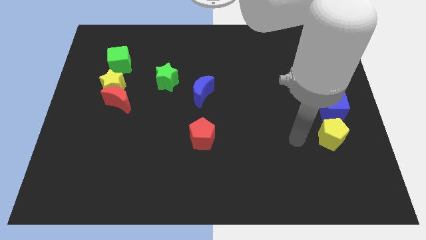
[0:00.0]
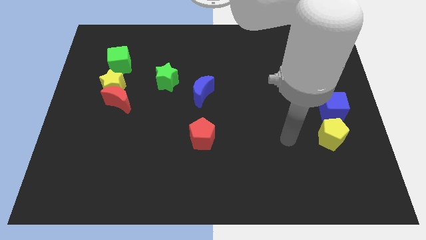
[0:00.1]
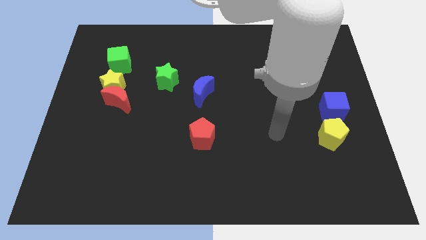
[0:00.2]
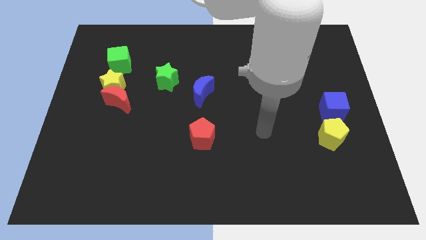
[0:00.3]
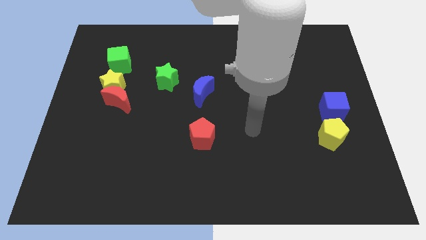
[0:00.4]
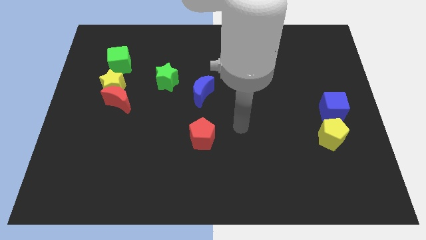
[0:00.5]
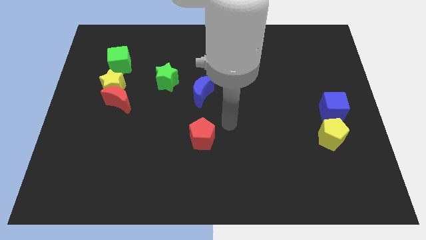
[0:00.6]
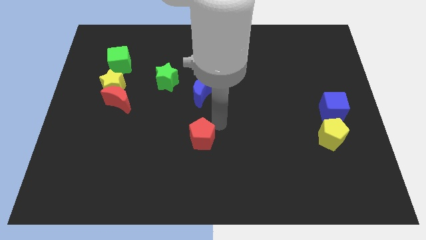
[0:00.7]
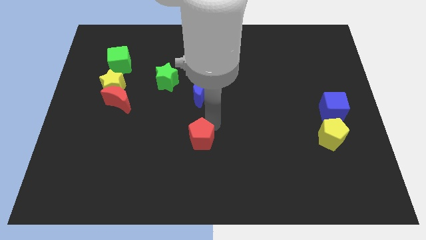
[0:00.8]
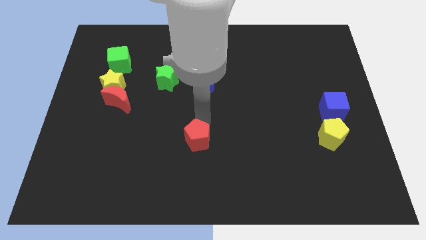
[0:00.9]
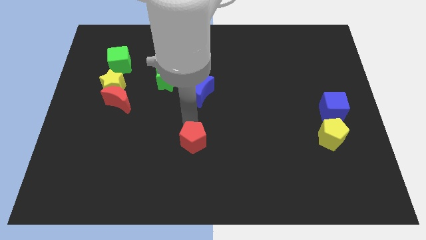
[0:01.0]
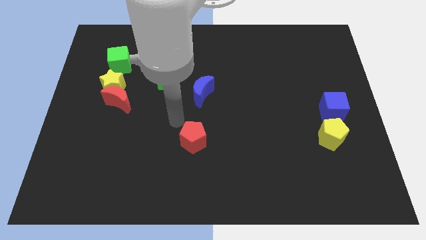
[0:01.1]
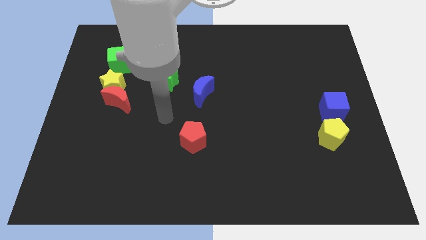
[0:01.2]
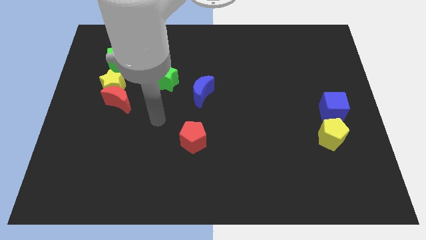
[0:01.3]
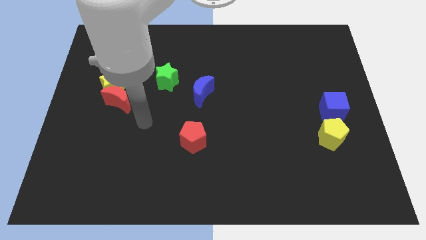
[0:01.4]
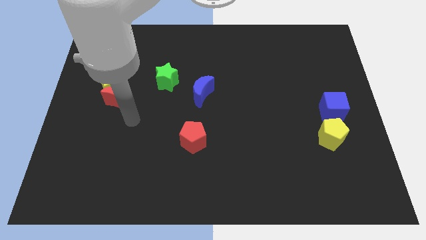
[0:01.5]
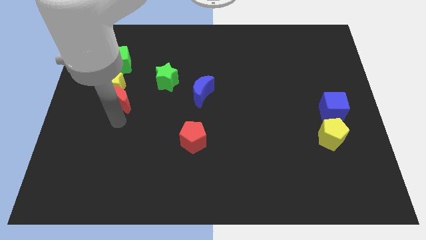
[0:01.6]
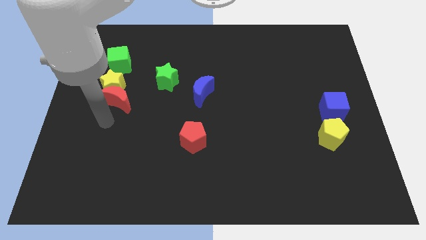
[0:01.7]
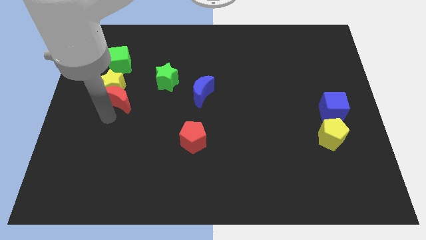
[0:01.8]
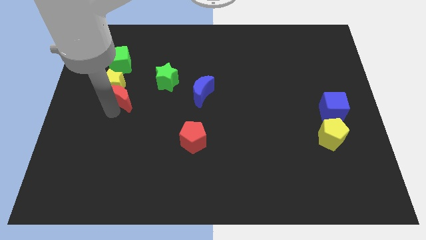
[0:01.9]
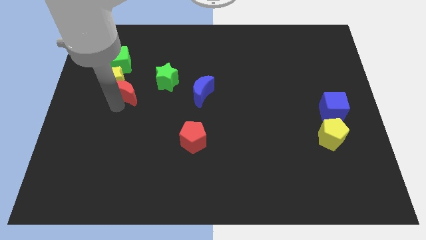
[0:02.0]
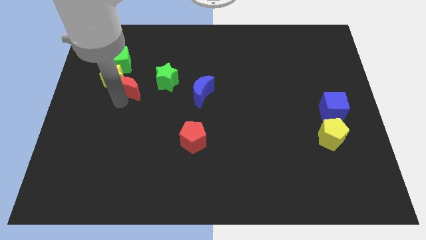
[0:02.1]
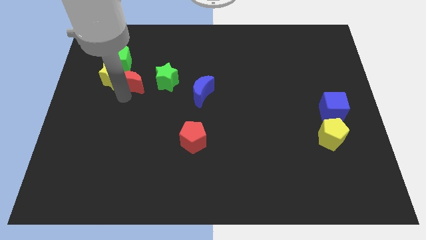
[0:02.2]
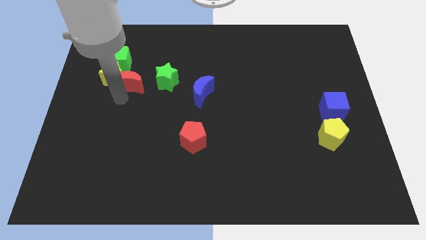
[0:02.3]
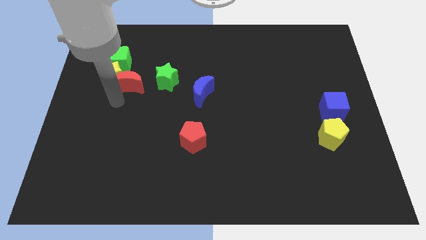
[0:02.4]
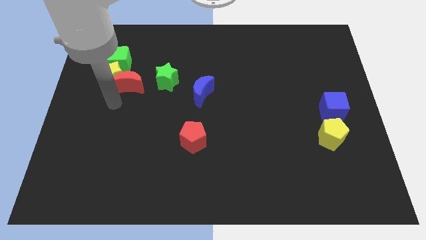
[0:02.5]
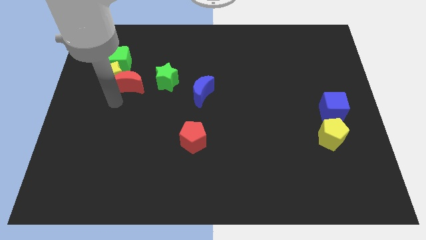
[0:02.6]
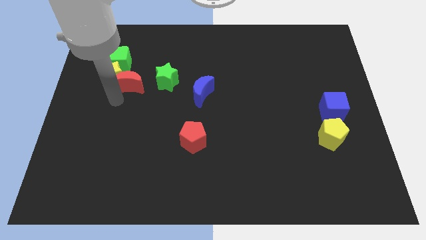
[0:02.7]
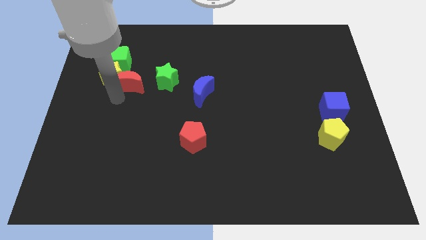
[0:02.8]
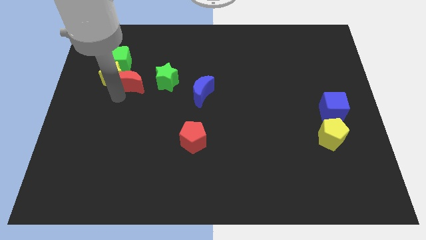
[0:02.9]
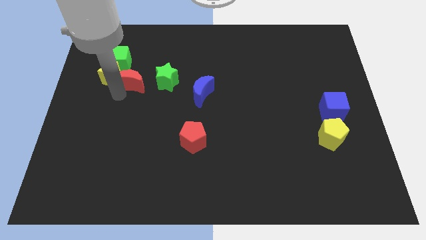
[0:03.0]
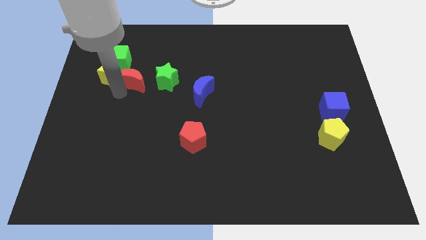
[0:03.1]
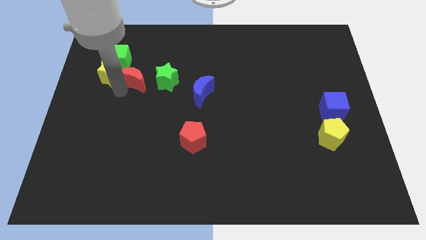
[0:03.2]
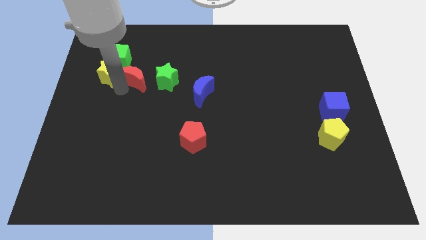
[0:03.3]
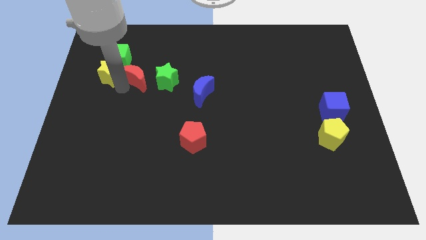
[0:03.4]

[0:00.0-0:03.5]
move the red moon upwards and right a bit

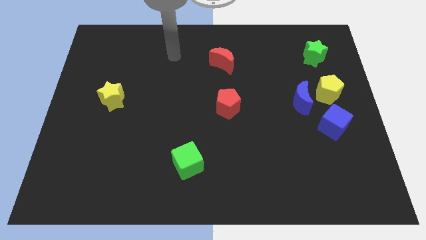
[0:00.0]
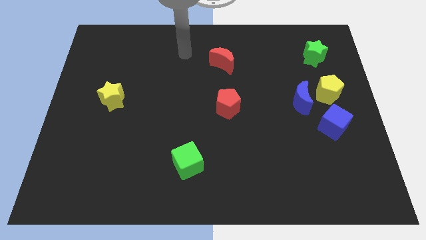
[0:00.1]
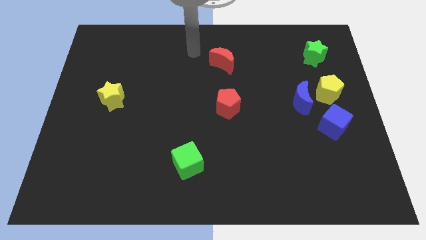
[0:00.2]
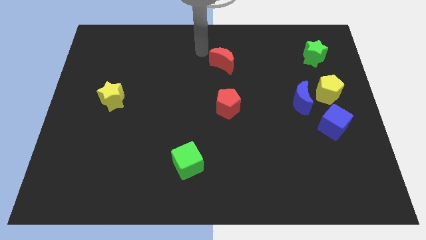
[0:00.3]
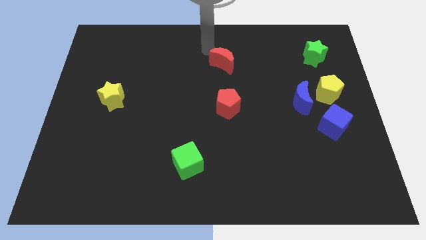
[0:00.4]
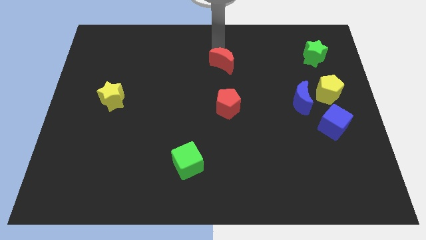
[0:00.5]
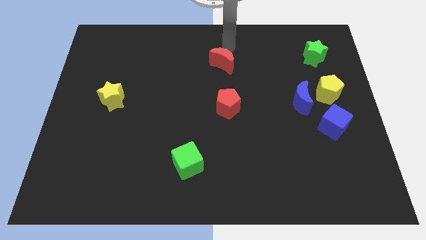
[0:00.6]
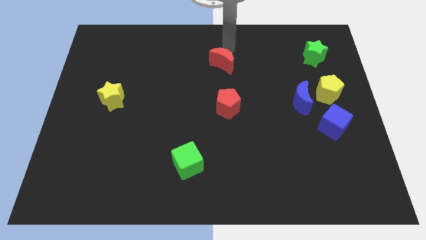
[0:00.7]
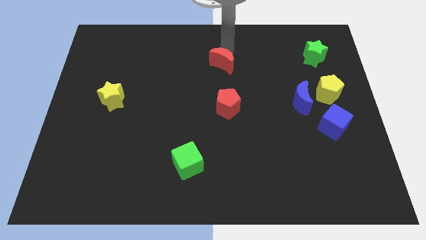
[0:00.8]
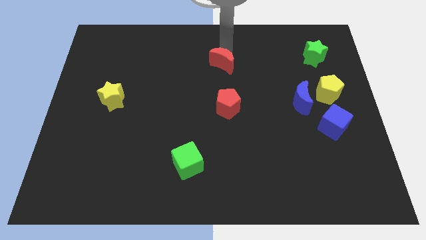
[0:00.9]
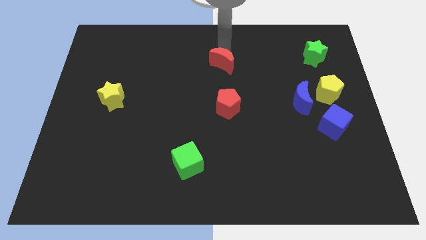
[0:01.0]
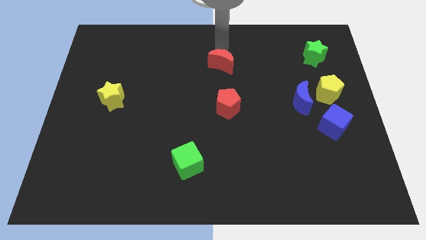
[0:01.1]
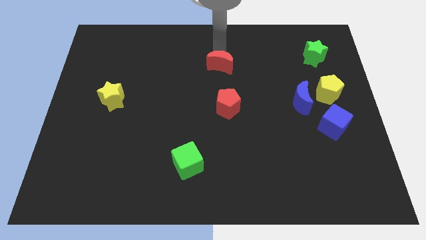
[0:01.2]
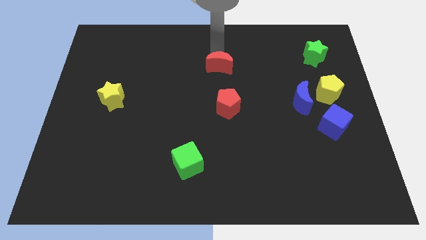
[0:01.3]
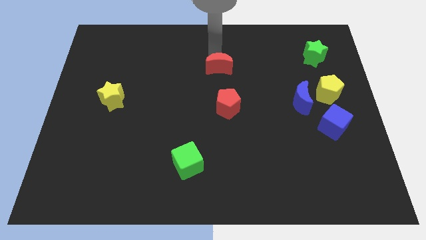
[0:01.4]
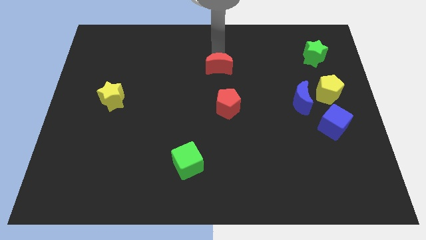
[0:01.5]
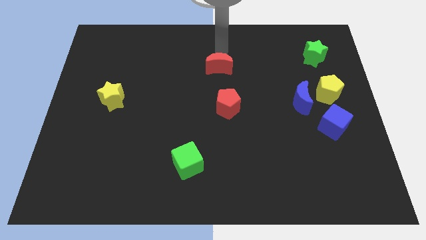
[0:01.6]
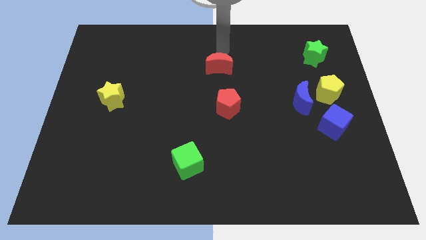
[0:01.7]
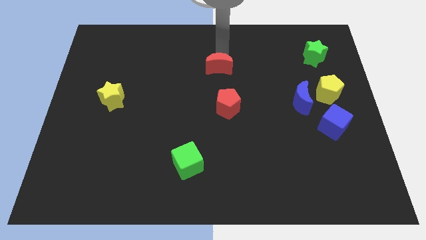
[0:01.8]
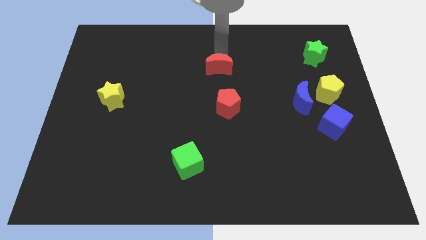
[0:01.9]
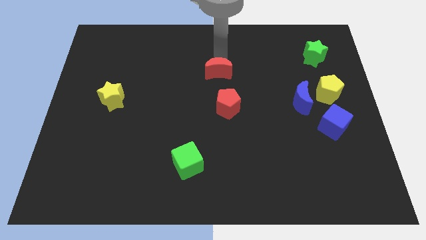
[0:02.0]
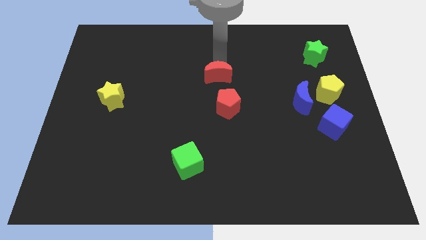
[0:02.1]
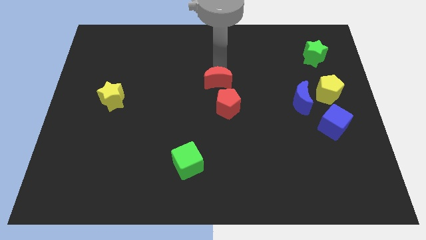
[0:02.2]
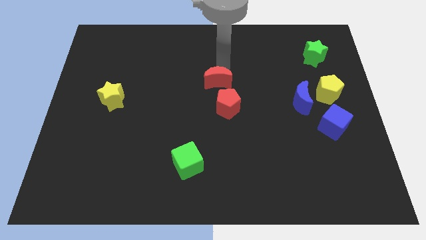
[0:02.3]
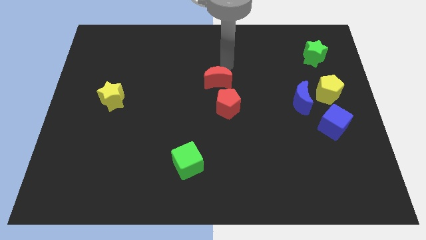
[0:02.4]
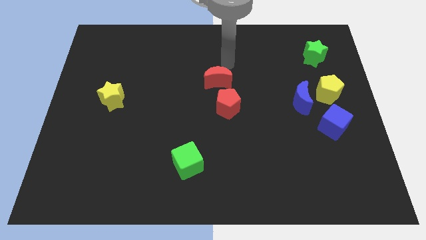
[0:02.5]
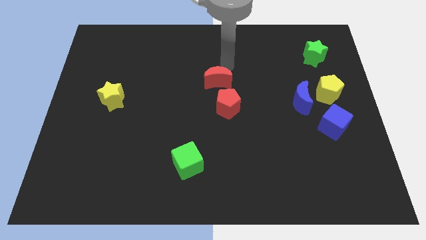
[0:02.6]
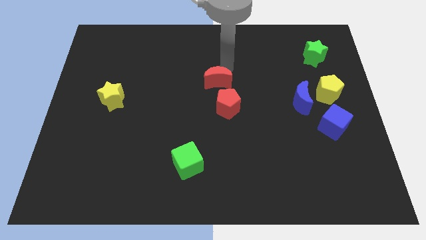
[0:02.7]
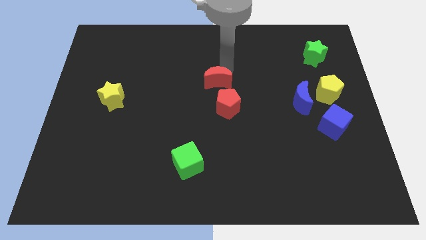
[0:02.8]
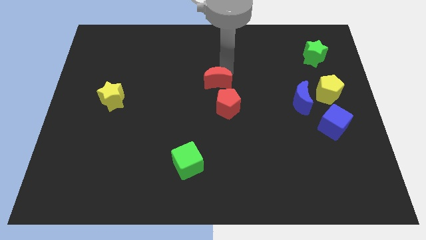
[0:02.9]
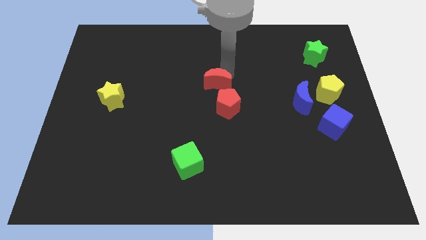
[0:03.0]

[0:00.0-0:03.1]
push the red moon down a little

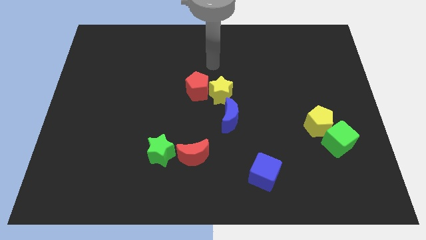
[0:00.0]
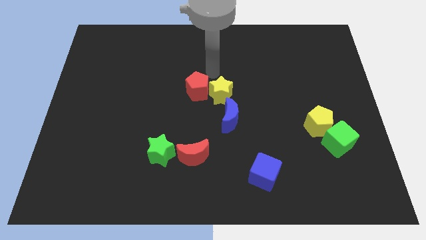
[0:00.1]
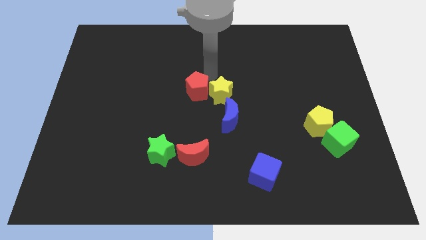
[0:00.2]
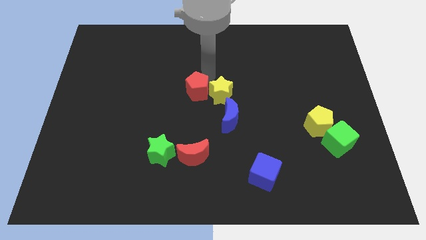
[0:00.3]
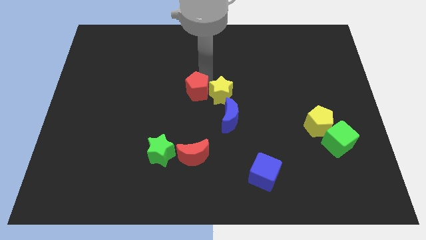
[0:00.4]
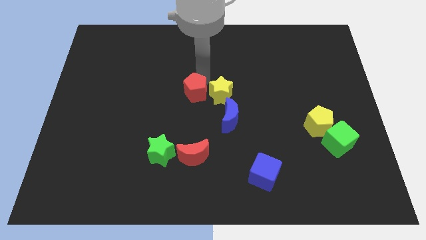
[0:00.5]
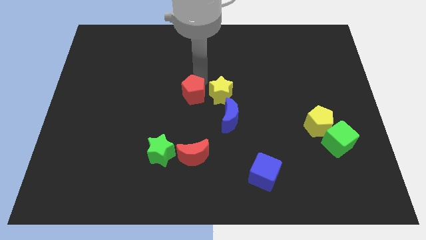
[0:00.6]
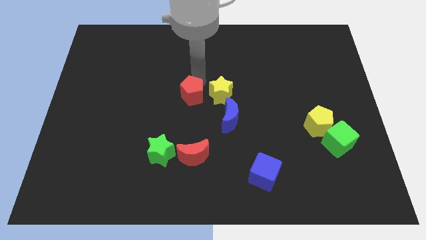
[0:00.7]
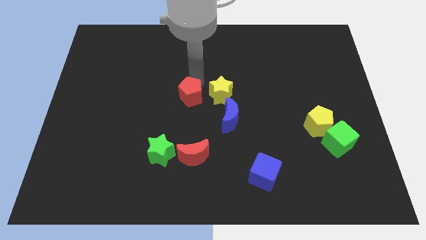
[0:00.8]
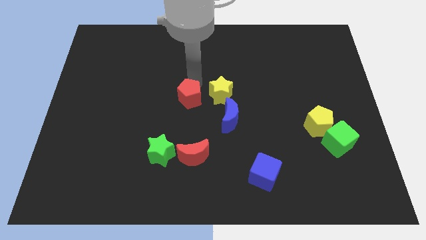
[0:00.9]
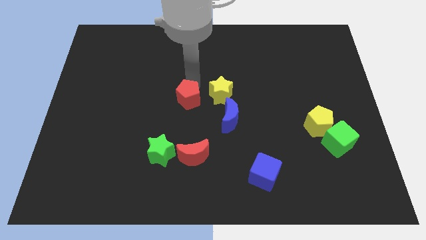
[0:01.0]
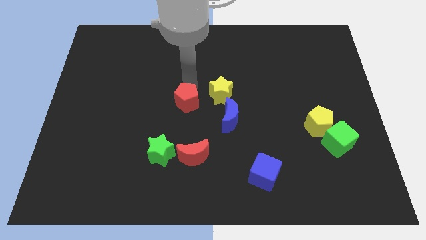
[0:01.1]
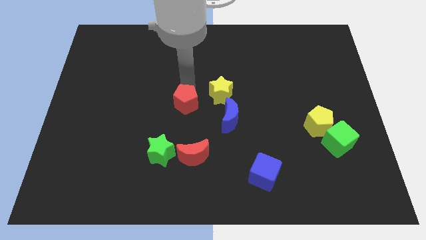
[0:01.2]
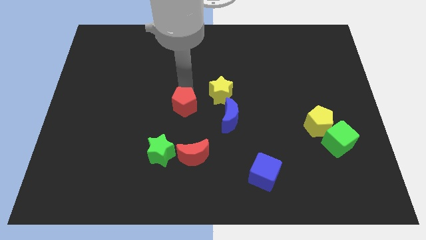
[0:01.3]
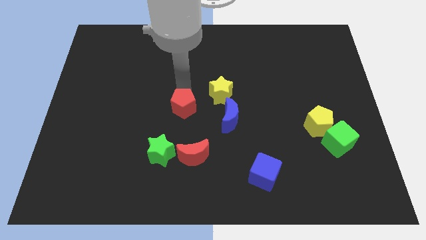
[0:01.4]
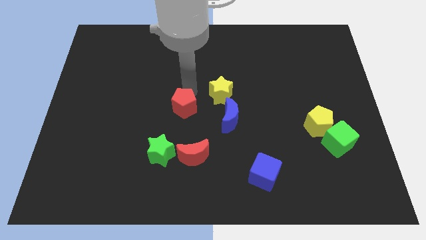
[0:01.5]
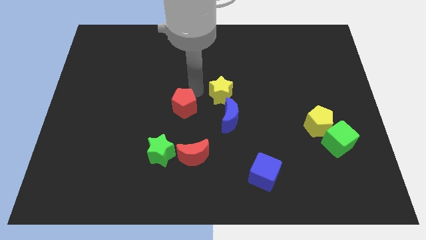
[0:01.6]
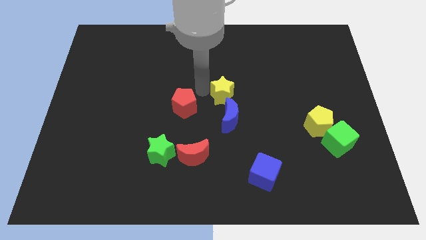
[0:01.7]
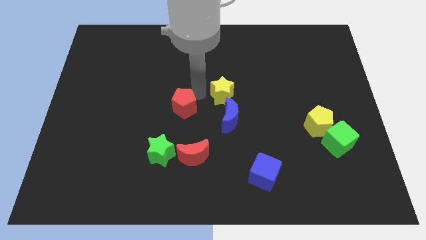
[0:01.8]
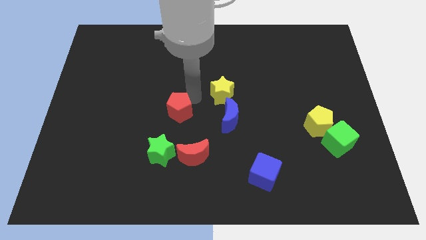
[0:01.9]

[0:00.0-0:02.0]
slightly push the red pentagon diagonally down and to the left
